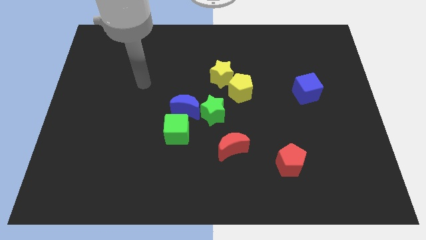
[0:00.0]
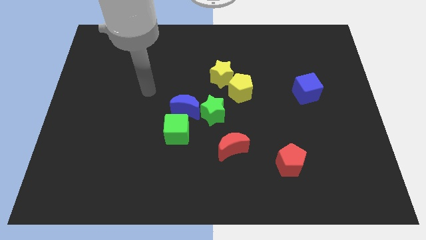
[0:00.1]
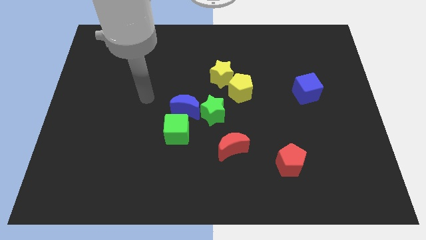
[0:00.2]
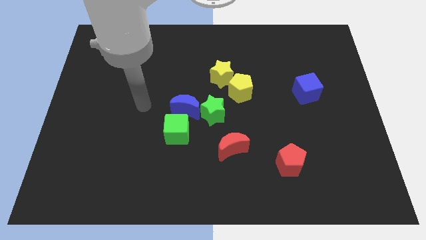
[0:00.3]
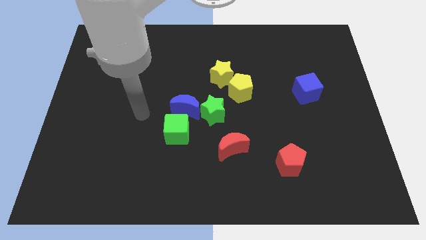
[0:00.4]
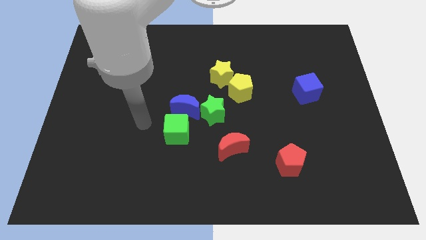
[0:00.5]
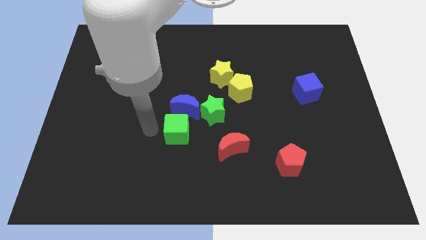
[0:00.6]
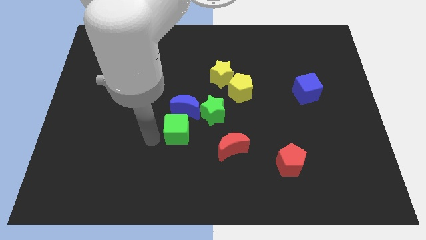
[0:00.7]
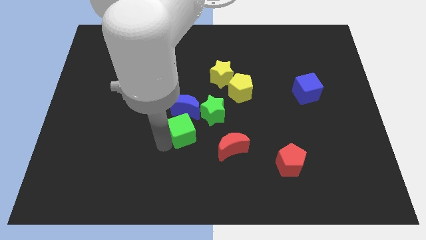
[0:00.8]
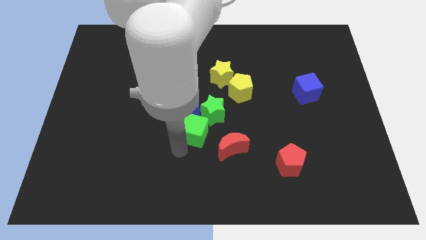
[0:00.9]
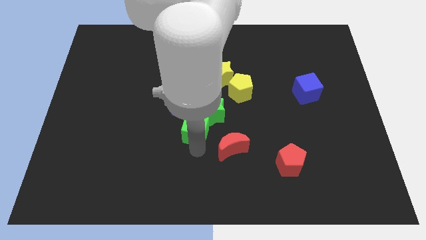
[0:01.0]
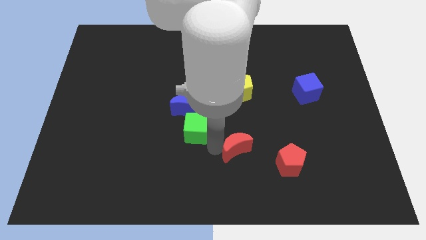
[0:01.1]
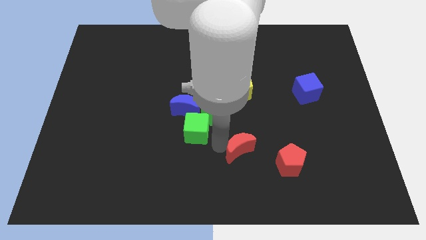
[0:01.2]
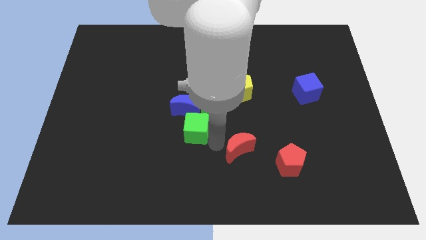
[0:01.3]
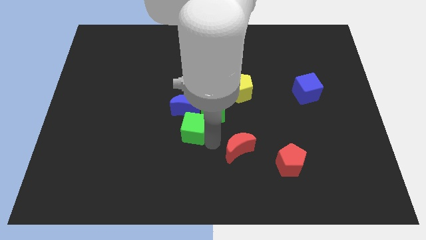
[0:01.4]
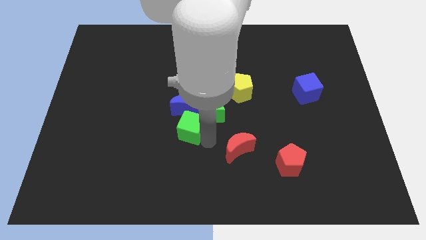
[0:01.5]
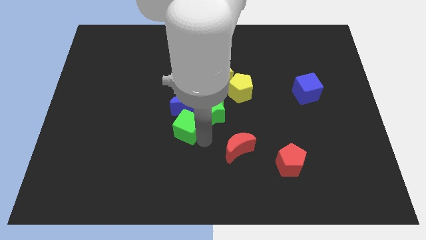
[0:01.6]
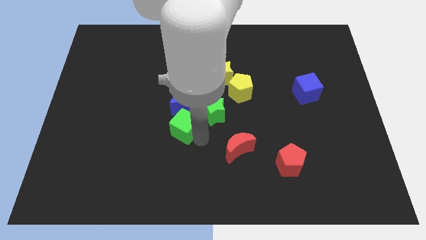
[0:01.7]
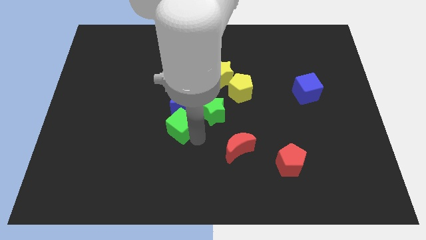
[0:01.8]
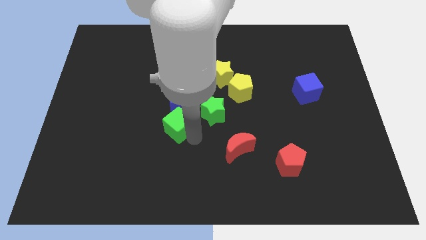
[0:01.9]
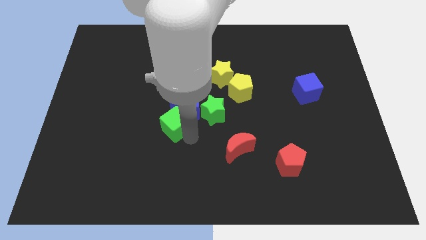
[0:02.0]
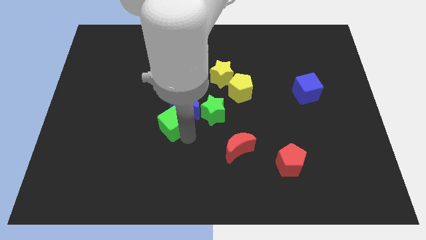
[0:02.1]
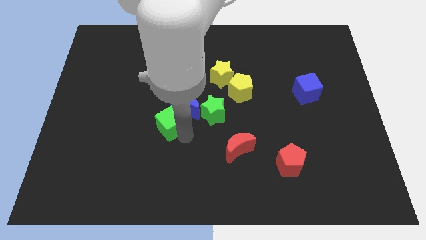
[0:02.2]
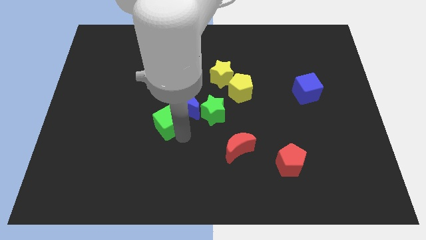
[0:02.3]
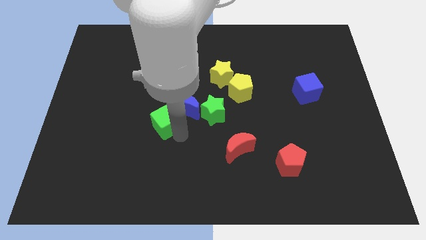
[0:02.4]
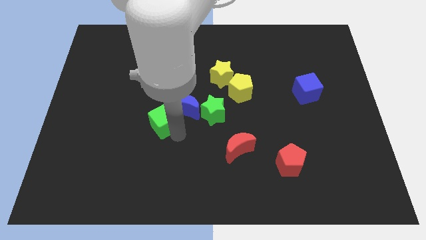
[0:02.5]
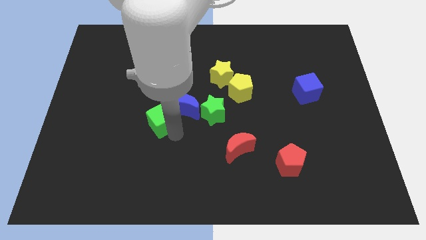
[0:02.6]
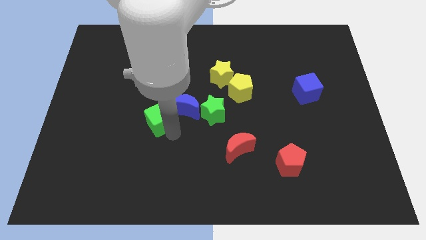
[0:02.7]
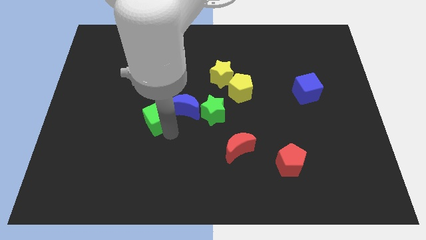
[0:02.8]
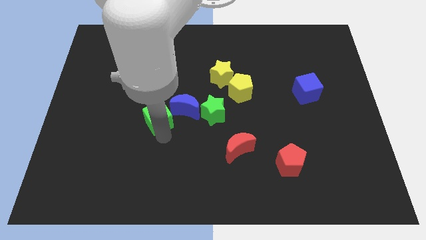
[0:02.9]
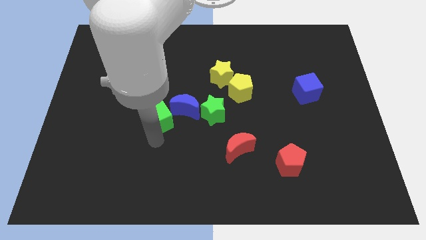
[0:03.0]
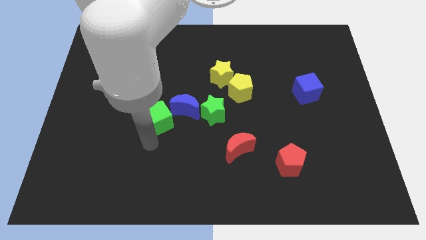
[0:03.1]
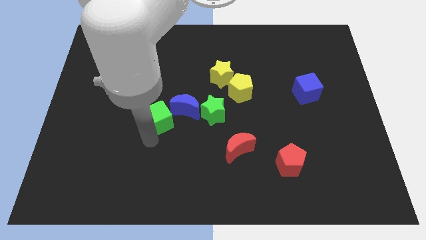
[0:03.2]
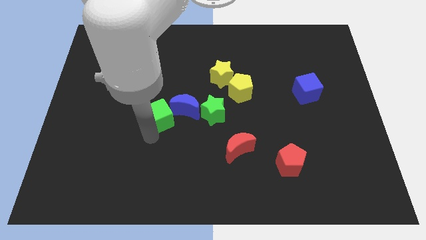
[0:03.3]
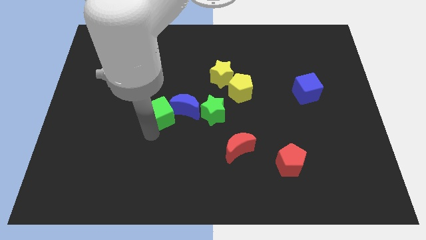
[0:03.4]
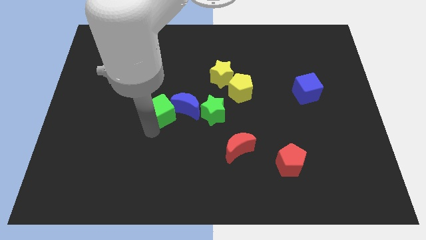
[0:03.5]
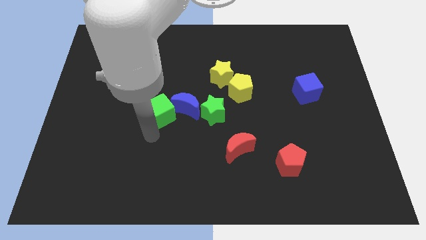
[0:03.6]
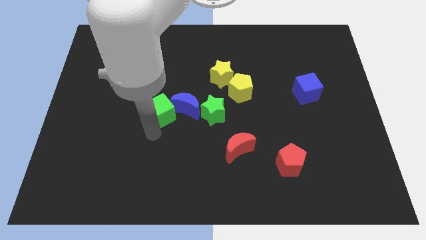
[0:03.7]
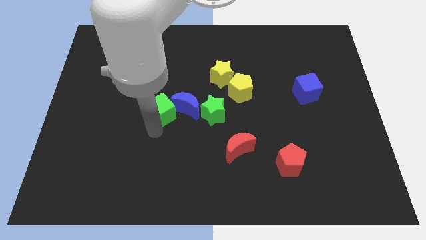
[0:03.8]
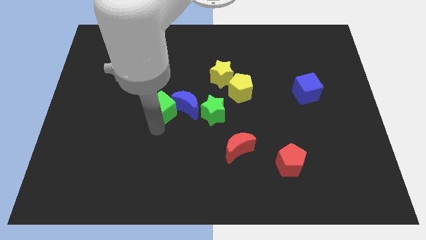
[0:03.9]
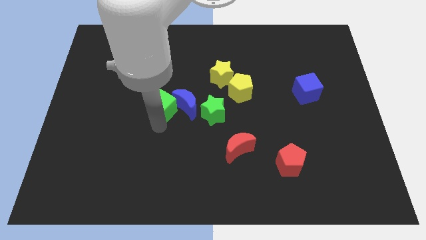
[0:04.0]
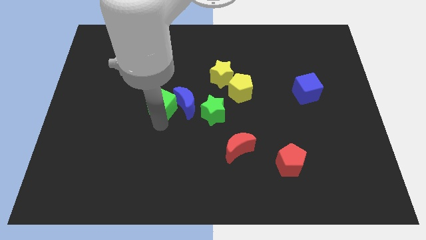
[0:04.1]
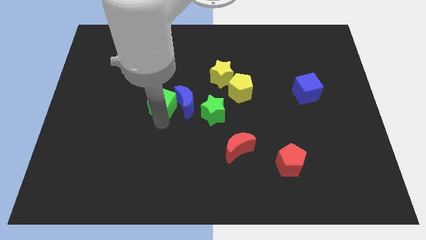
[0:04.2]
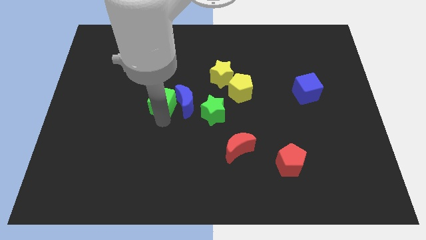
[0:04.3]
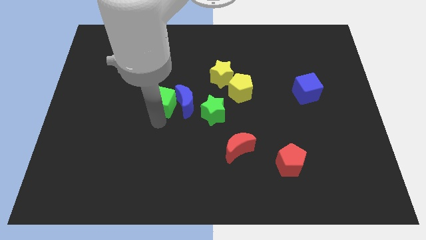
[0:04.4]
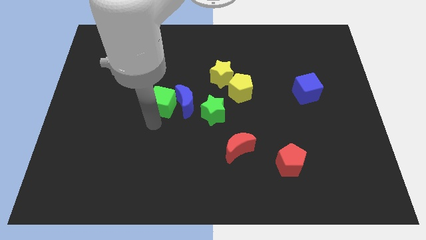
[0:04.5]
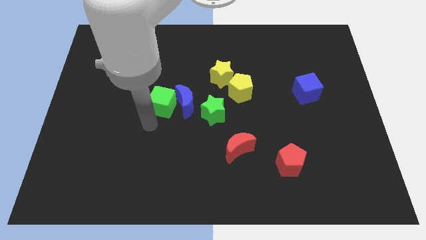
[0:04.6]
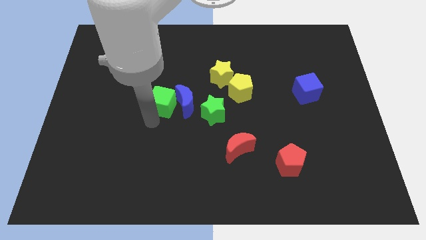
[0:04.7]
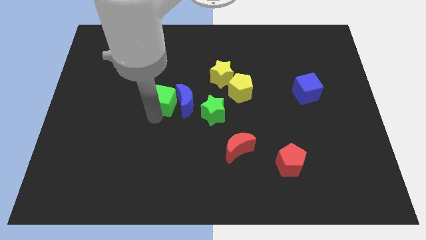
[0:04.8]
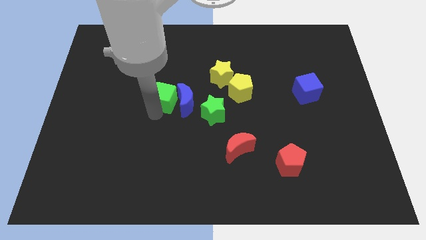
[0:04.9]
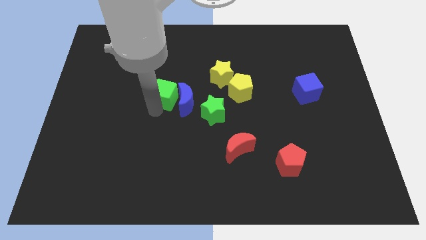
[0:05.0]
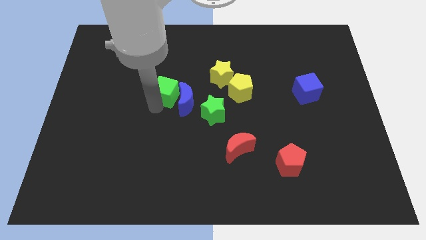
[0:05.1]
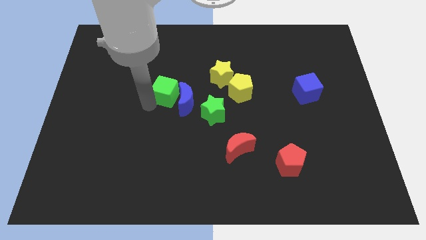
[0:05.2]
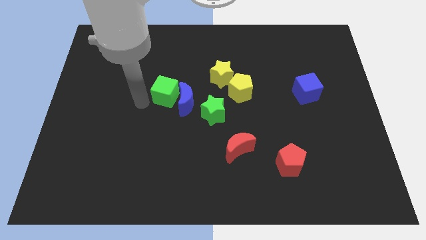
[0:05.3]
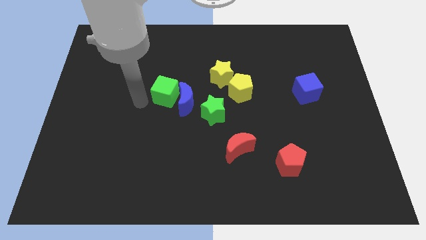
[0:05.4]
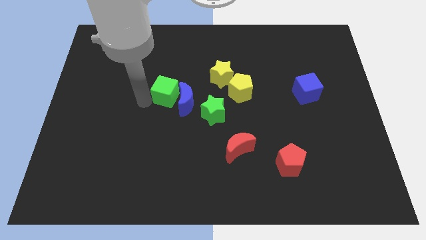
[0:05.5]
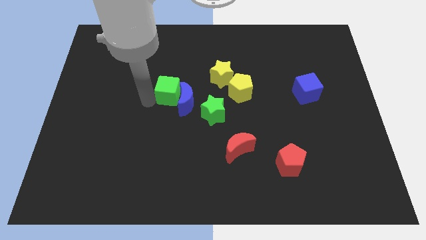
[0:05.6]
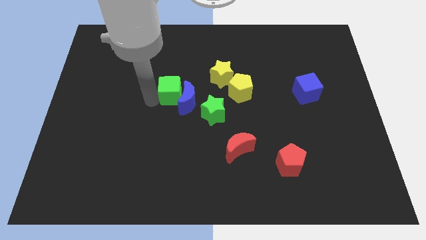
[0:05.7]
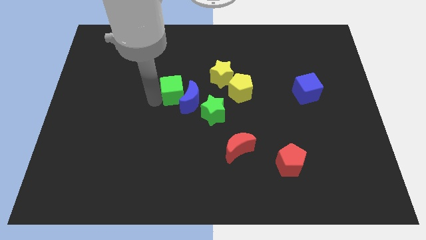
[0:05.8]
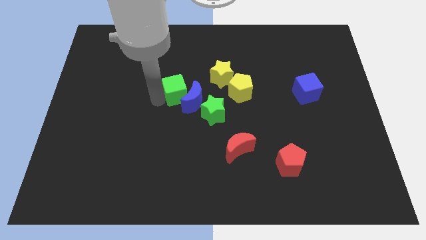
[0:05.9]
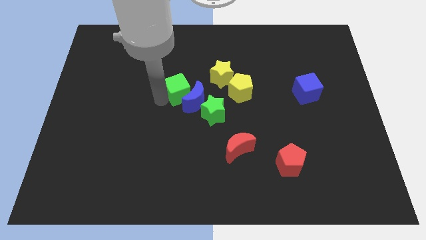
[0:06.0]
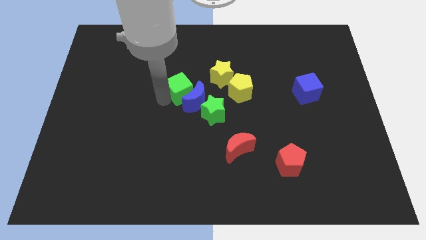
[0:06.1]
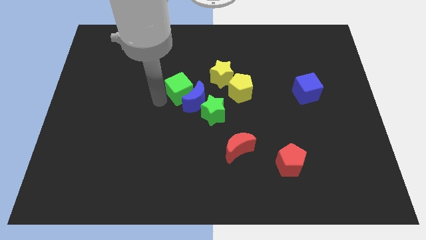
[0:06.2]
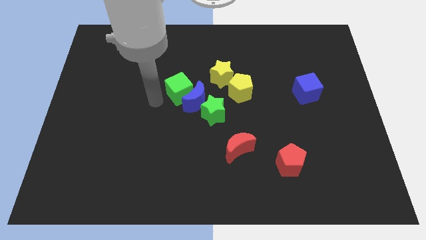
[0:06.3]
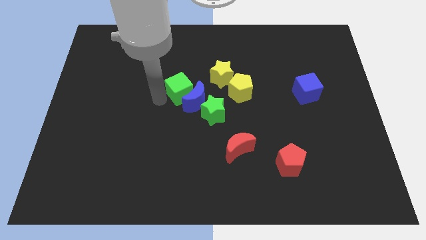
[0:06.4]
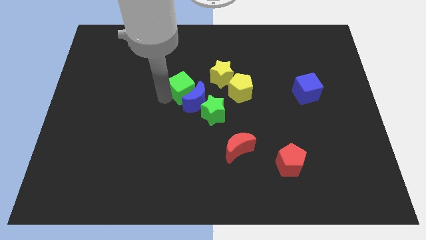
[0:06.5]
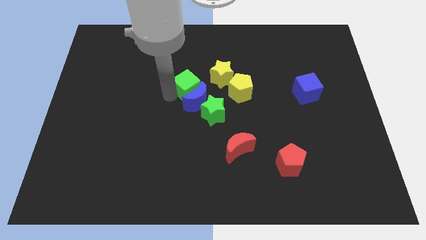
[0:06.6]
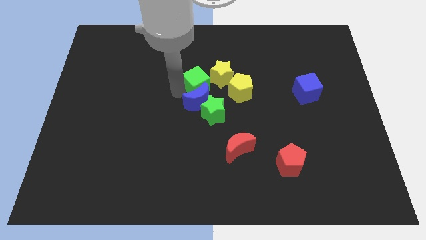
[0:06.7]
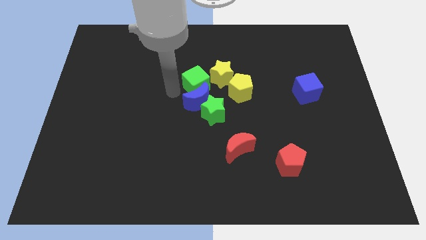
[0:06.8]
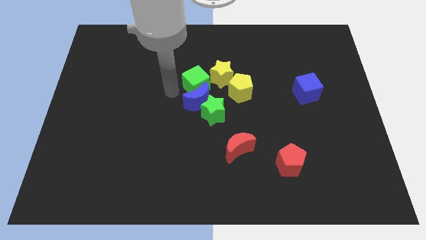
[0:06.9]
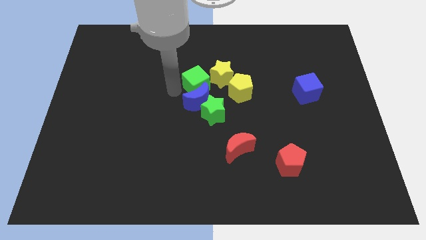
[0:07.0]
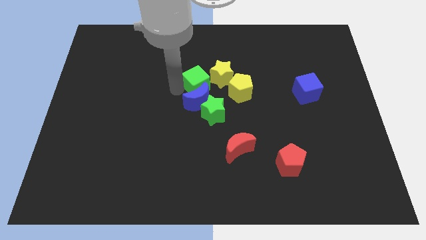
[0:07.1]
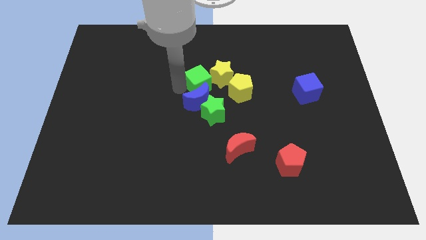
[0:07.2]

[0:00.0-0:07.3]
put the green cube to the yellow star
